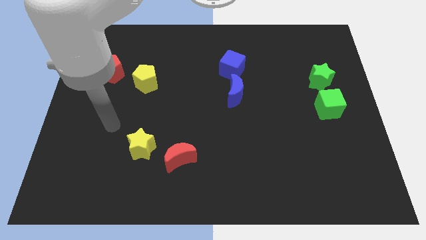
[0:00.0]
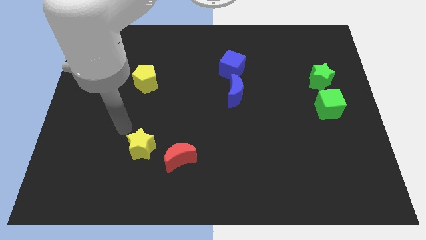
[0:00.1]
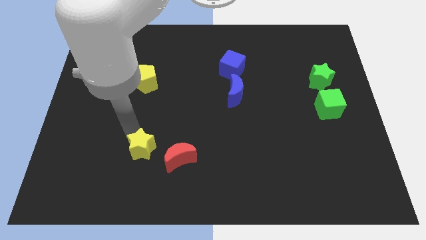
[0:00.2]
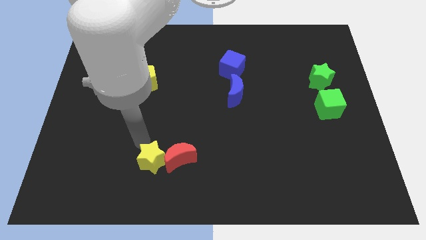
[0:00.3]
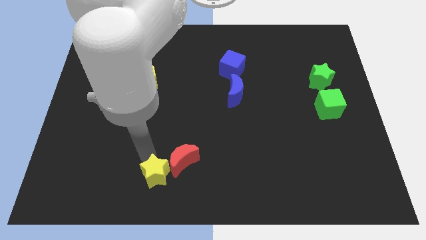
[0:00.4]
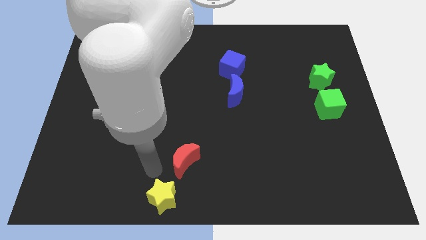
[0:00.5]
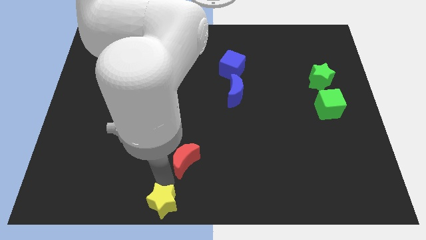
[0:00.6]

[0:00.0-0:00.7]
move the red moon away from the yellow star

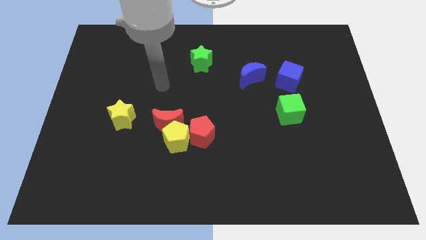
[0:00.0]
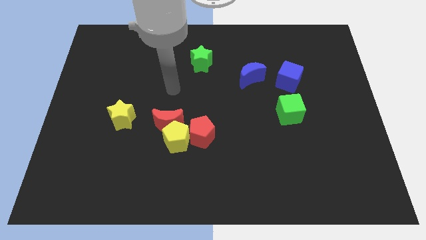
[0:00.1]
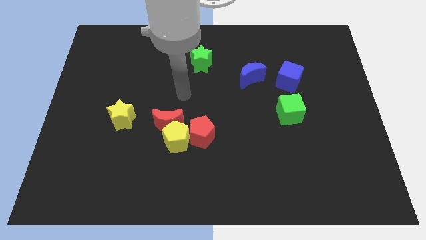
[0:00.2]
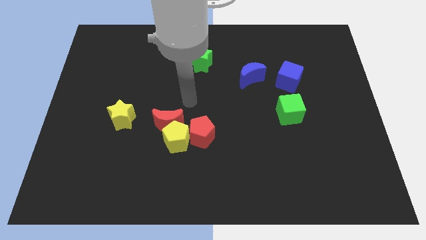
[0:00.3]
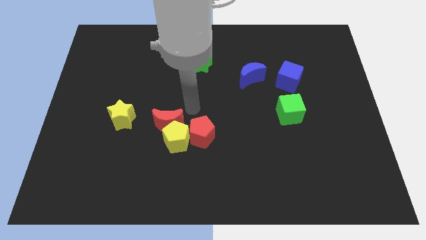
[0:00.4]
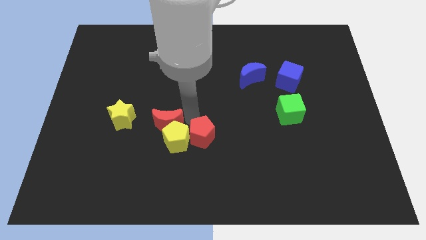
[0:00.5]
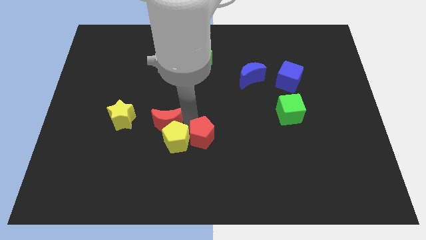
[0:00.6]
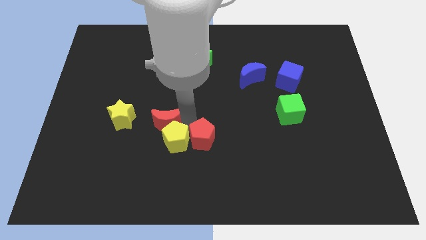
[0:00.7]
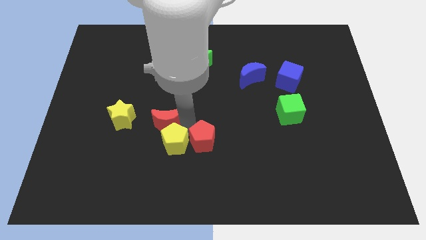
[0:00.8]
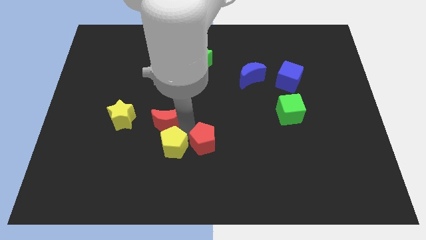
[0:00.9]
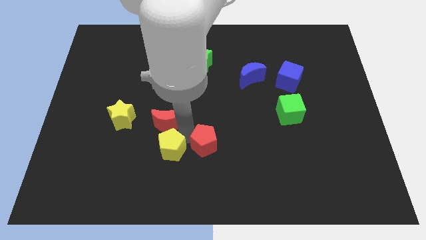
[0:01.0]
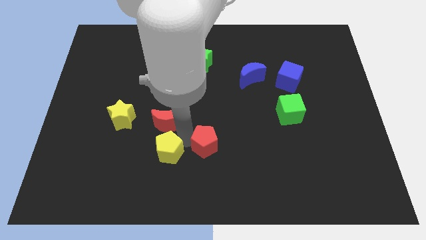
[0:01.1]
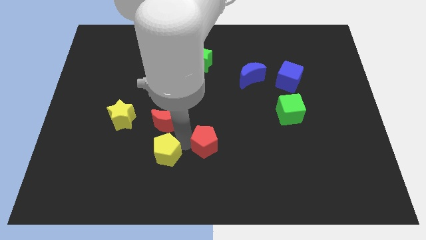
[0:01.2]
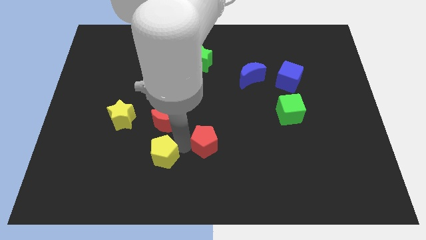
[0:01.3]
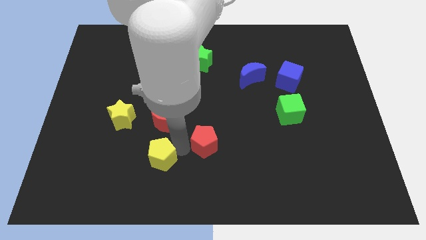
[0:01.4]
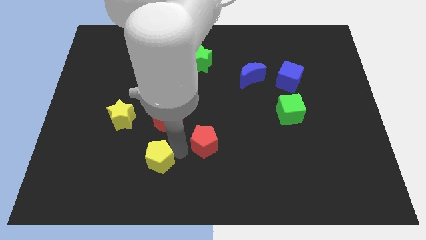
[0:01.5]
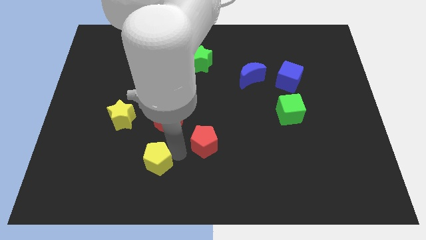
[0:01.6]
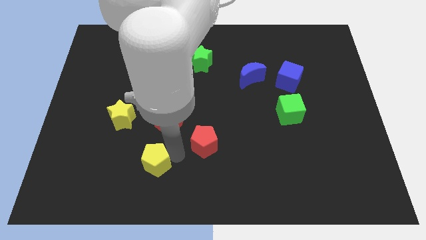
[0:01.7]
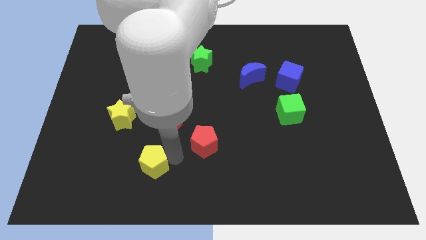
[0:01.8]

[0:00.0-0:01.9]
separate the yellow pentagon from the red moon and red pentagon

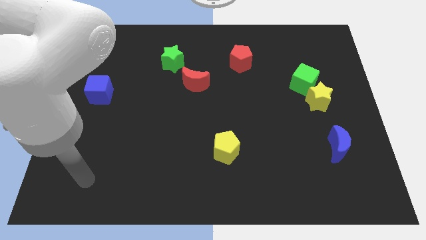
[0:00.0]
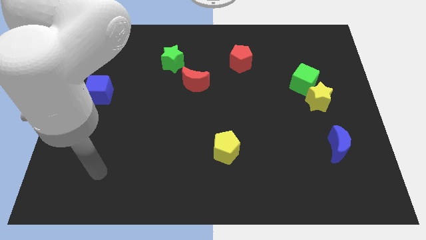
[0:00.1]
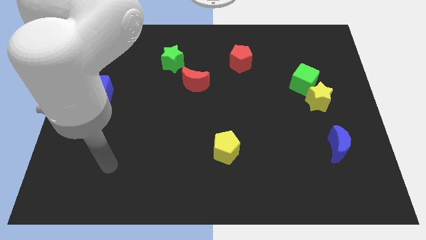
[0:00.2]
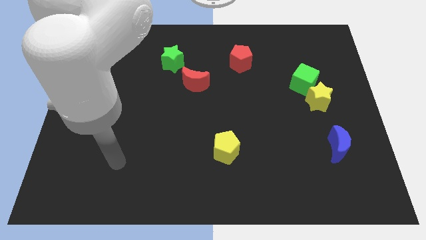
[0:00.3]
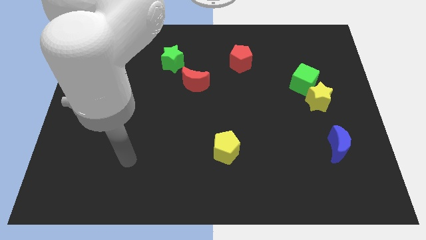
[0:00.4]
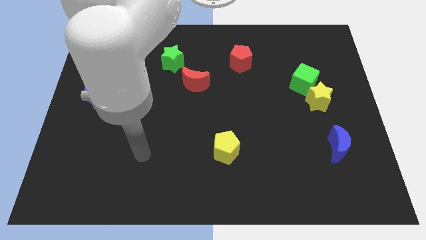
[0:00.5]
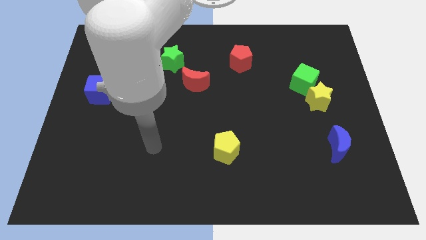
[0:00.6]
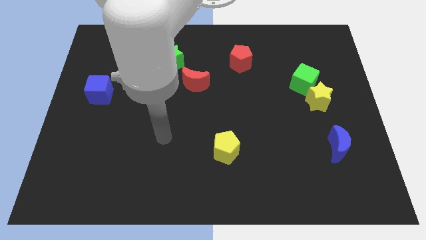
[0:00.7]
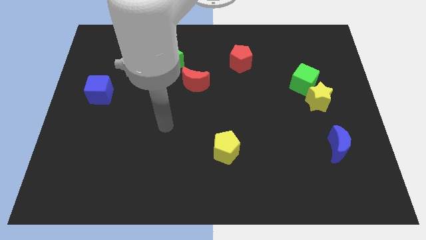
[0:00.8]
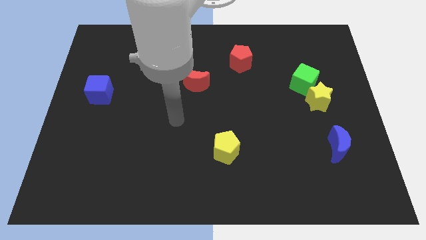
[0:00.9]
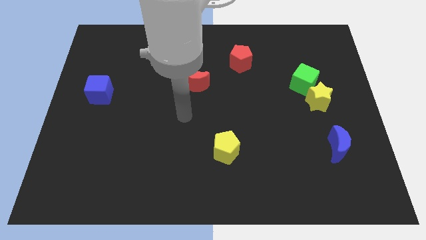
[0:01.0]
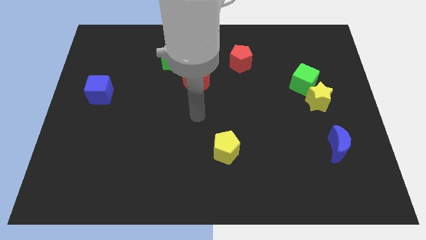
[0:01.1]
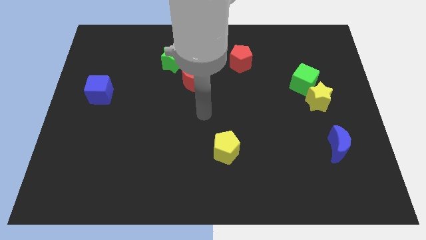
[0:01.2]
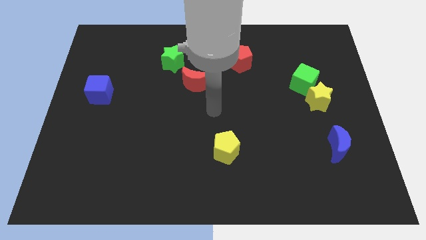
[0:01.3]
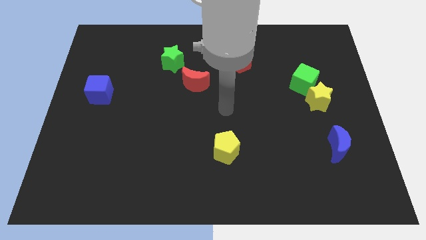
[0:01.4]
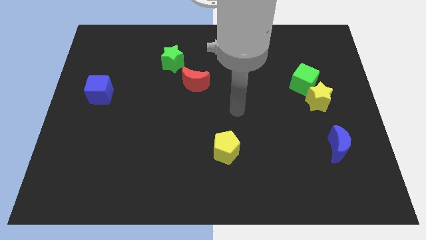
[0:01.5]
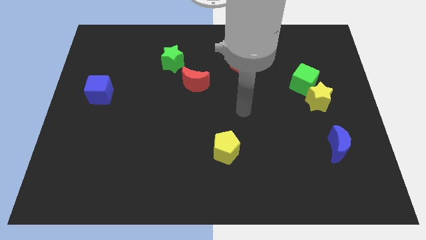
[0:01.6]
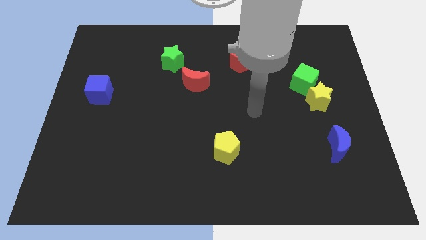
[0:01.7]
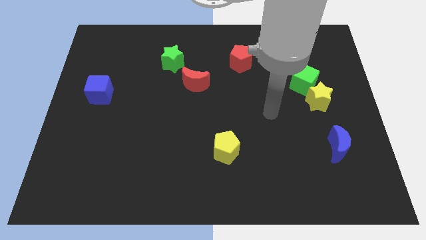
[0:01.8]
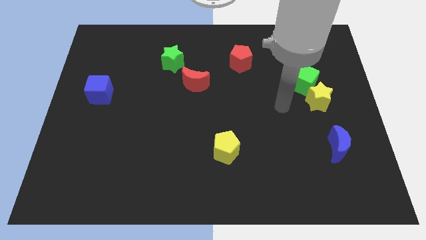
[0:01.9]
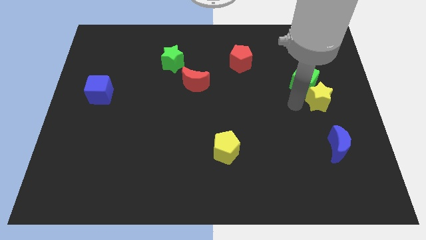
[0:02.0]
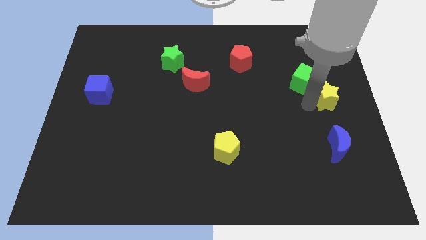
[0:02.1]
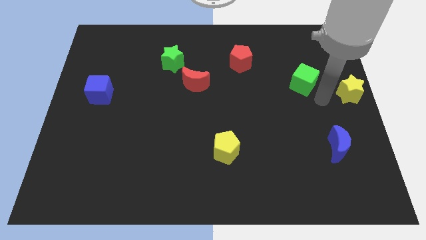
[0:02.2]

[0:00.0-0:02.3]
separate the green cube from the yellow star

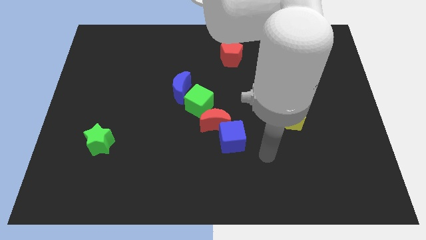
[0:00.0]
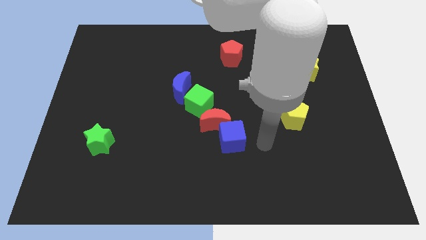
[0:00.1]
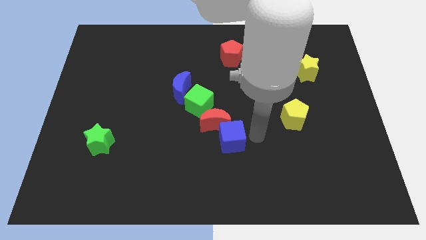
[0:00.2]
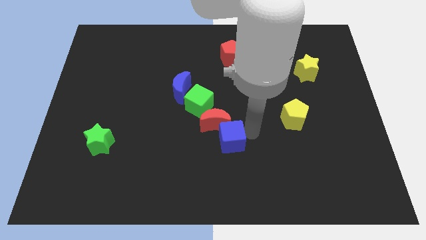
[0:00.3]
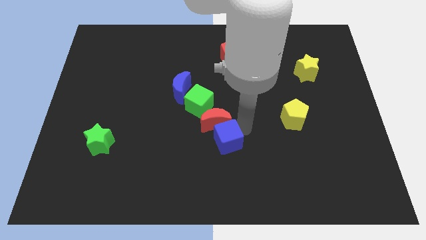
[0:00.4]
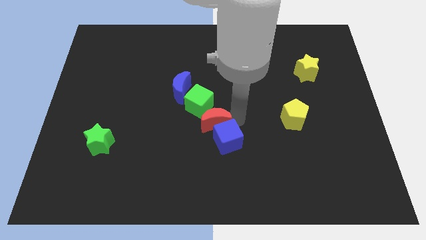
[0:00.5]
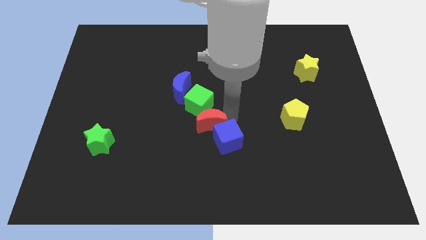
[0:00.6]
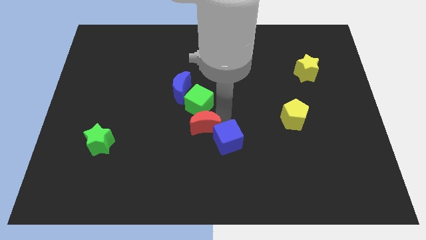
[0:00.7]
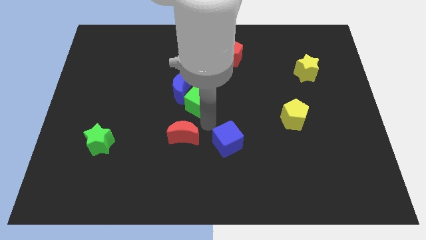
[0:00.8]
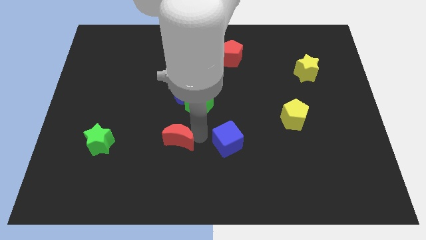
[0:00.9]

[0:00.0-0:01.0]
separate the blue cube from the red moon

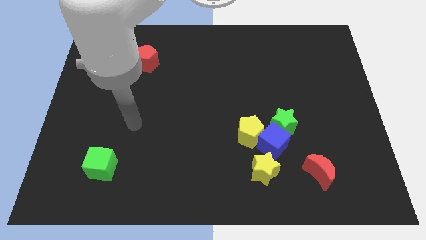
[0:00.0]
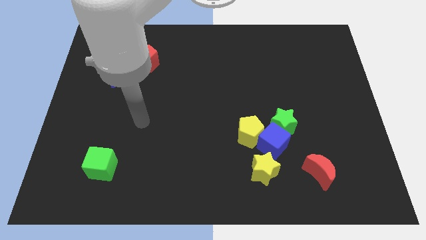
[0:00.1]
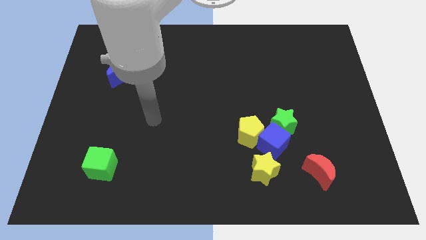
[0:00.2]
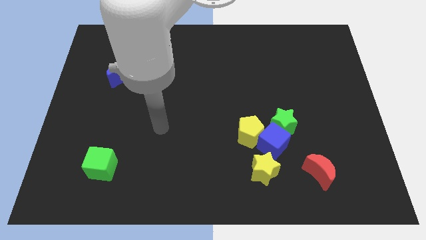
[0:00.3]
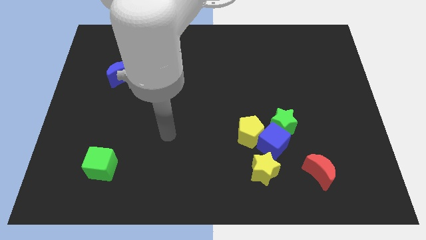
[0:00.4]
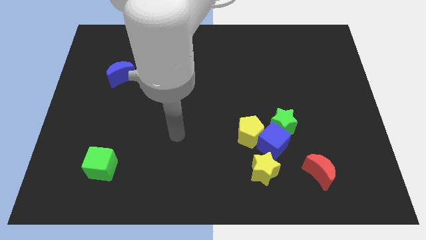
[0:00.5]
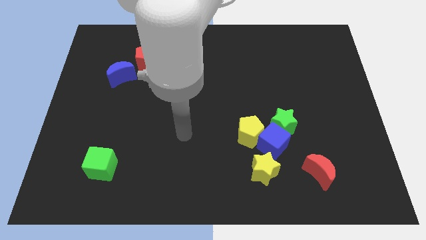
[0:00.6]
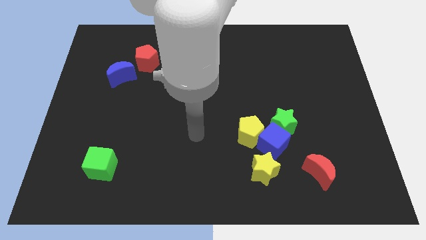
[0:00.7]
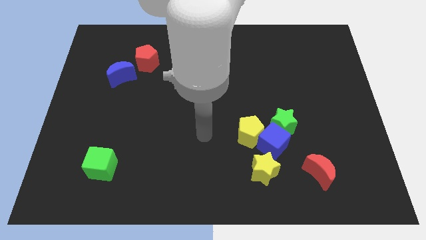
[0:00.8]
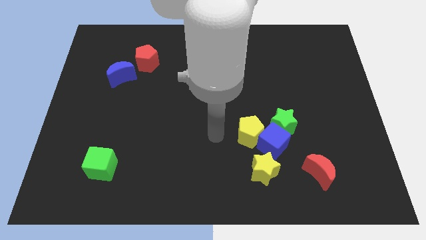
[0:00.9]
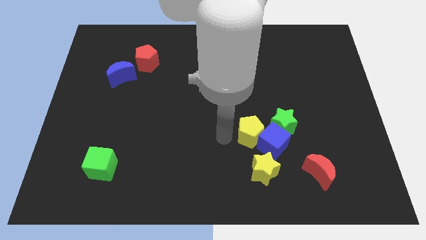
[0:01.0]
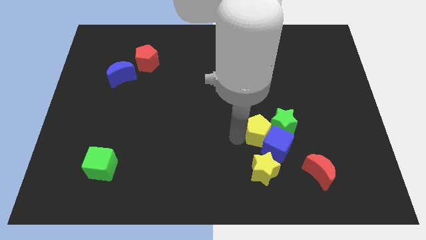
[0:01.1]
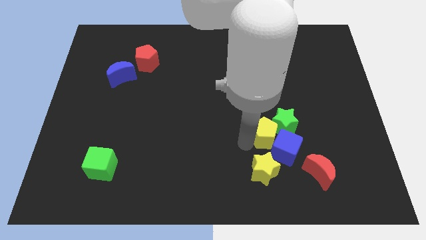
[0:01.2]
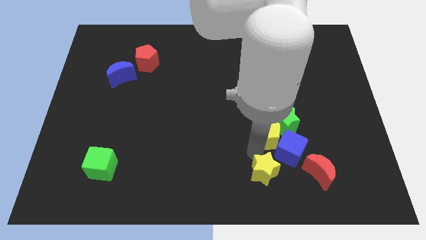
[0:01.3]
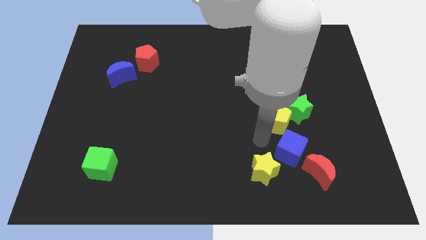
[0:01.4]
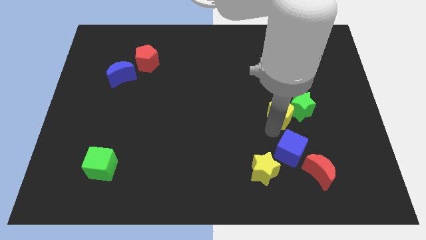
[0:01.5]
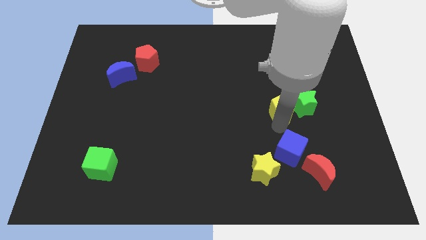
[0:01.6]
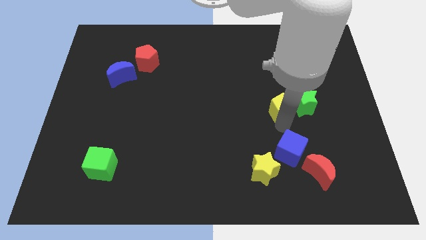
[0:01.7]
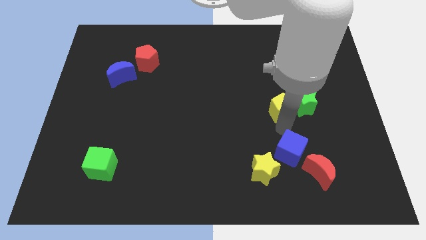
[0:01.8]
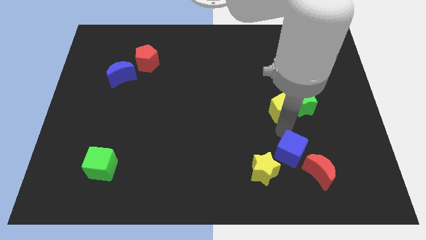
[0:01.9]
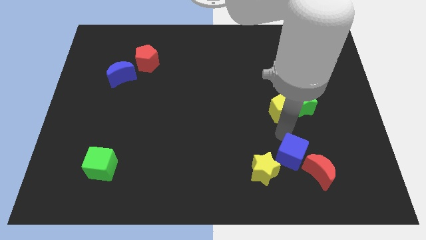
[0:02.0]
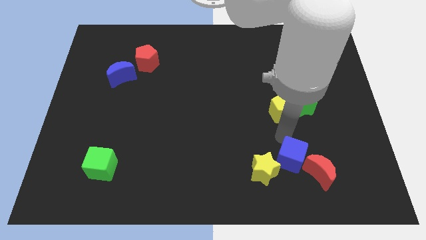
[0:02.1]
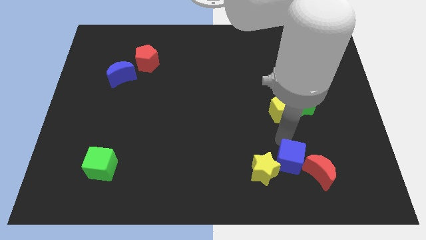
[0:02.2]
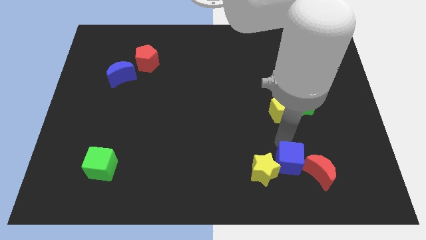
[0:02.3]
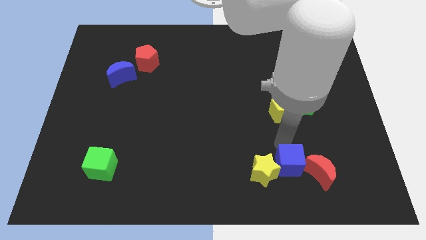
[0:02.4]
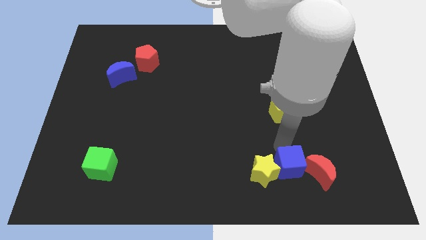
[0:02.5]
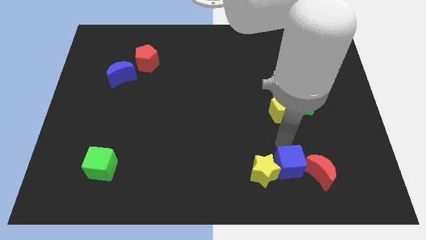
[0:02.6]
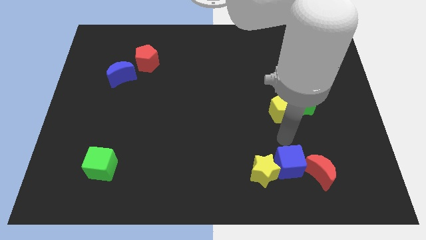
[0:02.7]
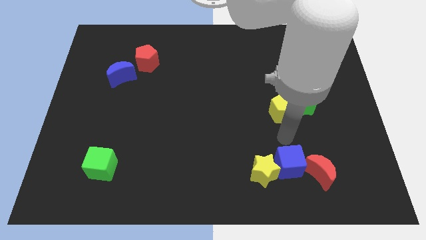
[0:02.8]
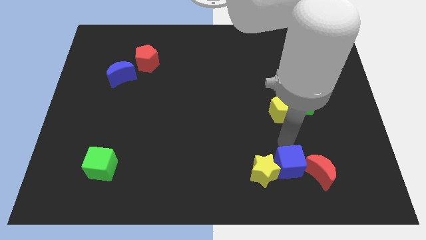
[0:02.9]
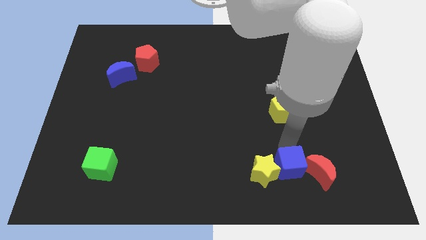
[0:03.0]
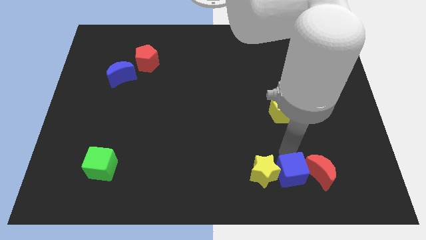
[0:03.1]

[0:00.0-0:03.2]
pull the blue cube apart from the group of blocks
